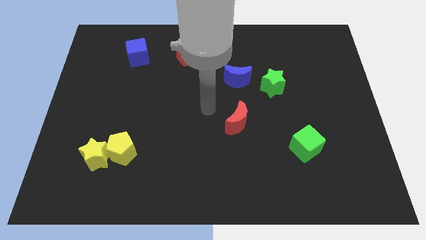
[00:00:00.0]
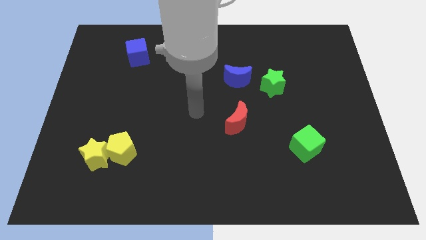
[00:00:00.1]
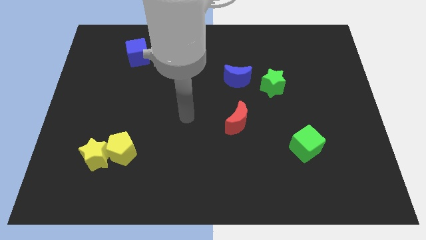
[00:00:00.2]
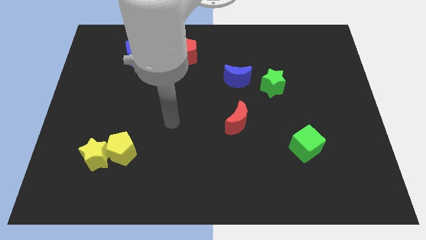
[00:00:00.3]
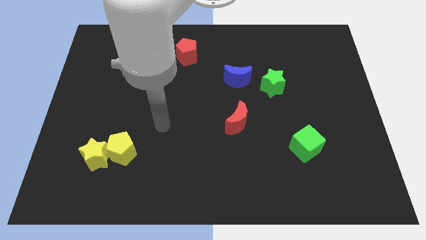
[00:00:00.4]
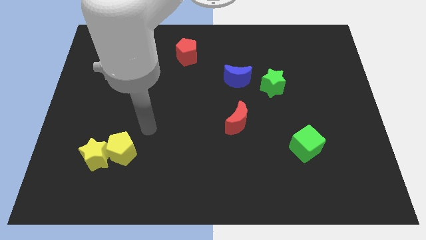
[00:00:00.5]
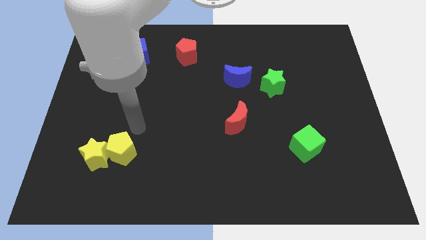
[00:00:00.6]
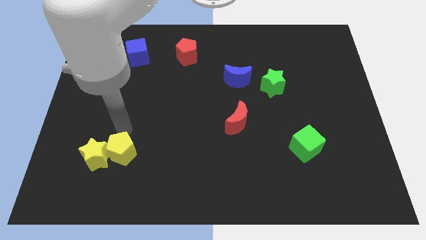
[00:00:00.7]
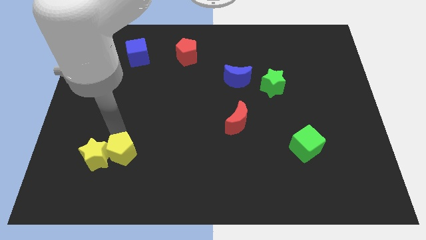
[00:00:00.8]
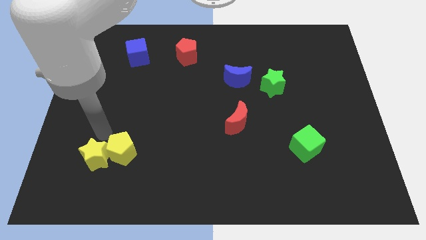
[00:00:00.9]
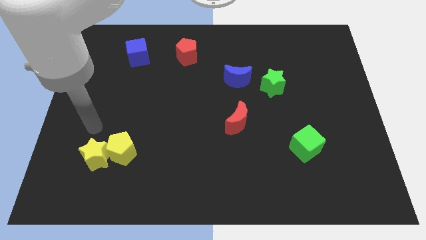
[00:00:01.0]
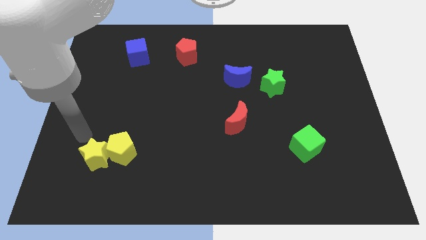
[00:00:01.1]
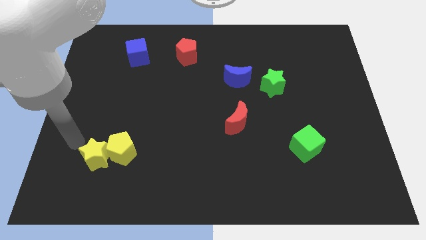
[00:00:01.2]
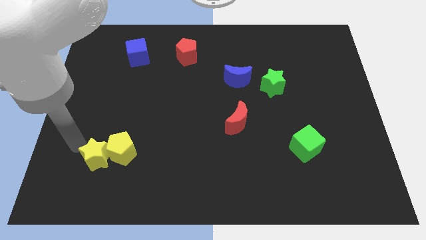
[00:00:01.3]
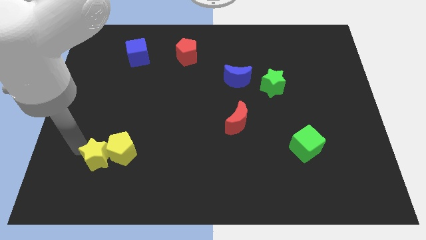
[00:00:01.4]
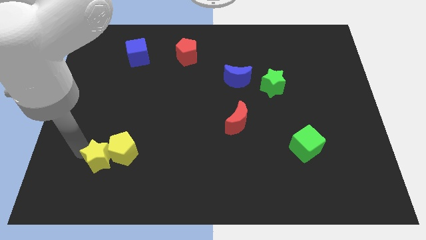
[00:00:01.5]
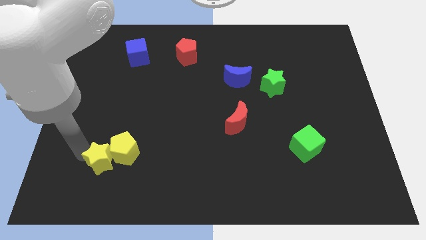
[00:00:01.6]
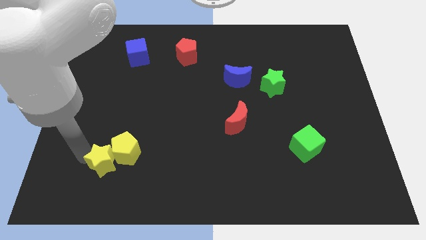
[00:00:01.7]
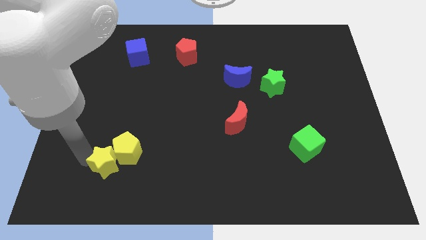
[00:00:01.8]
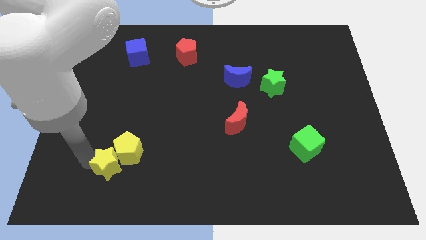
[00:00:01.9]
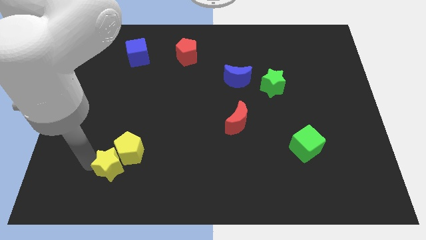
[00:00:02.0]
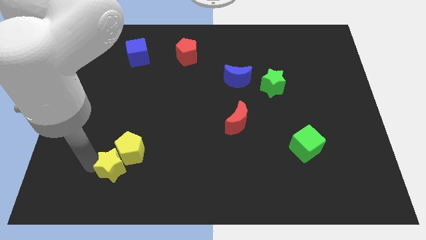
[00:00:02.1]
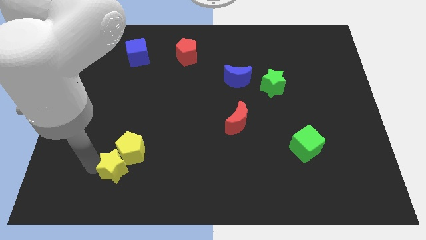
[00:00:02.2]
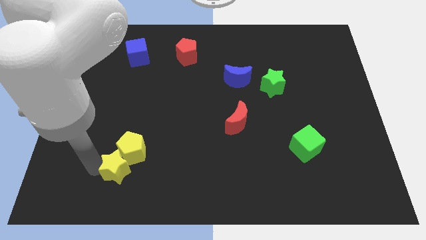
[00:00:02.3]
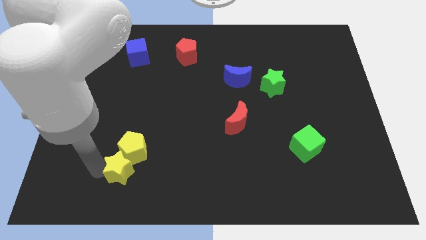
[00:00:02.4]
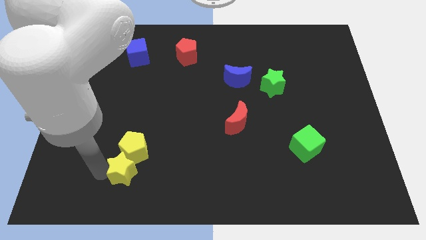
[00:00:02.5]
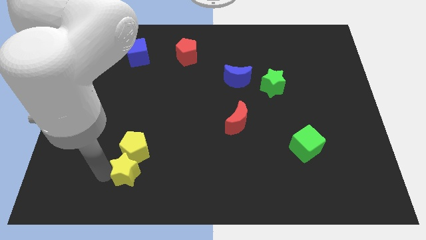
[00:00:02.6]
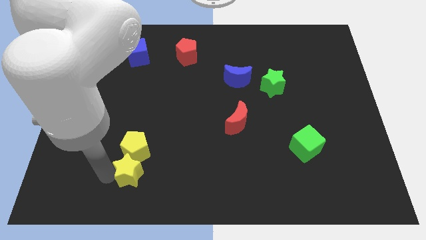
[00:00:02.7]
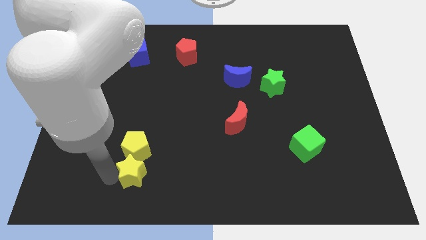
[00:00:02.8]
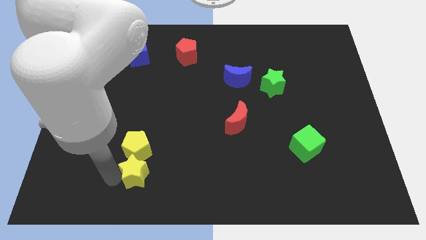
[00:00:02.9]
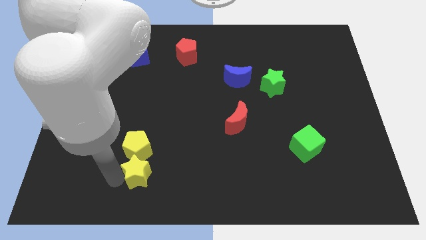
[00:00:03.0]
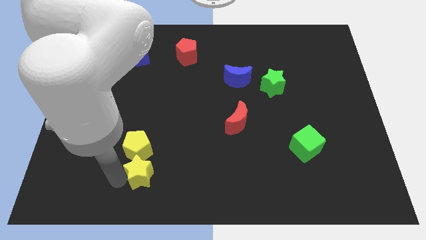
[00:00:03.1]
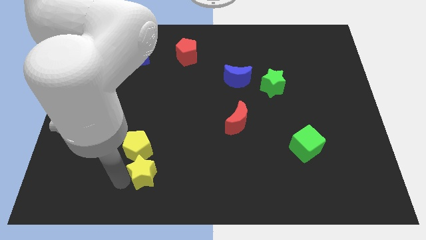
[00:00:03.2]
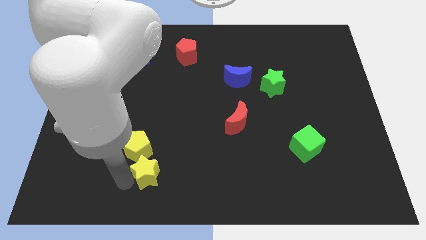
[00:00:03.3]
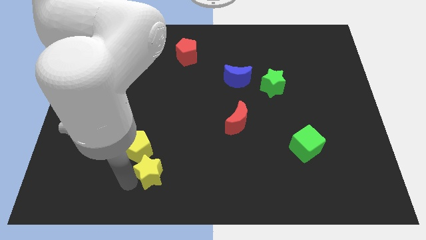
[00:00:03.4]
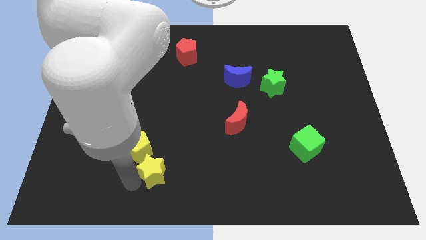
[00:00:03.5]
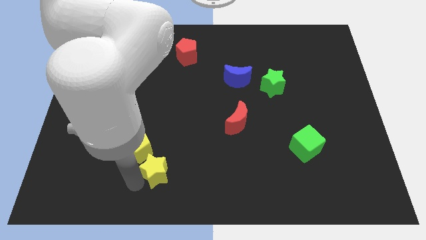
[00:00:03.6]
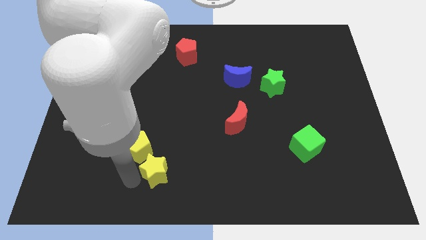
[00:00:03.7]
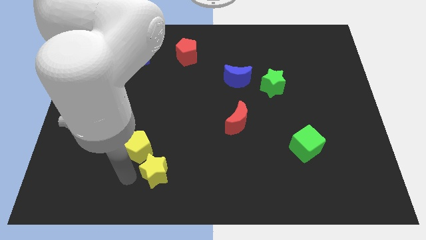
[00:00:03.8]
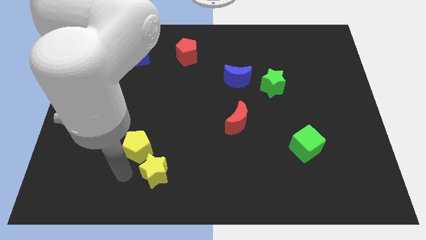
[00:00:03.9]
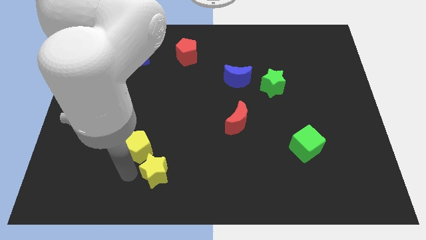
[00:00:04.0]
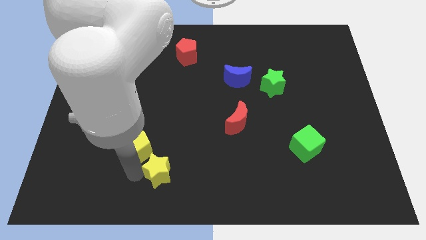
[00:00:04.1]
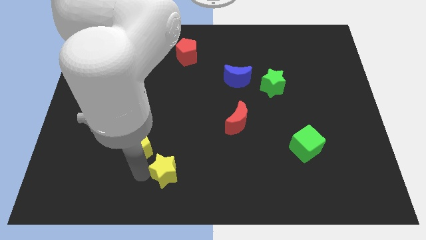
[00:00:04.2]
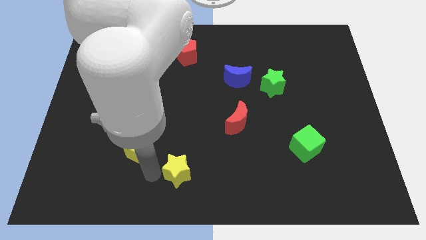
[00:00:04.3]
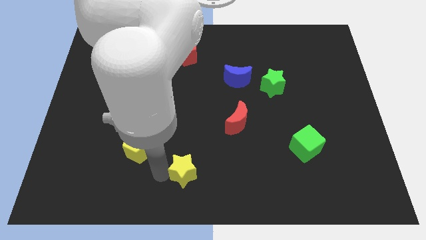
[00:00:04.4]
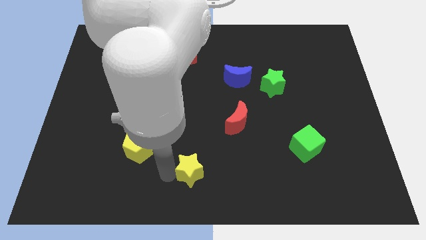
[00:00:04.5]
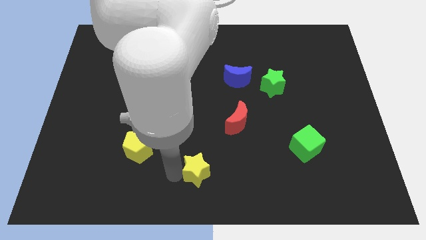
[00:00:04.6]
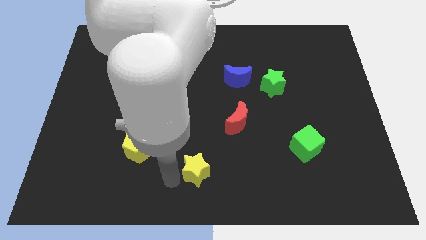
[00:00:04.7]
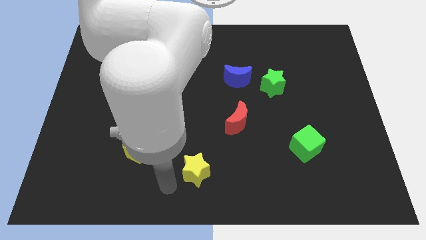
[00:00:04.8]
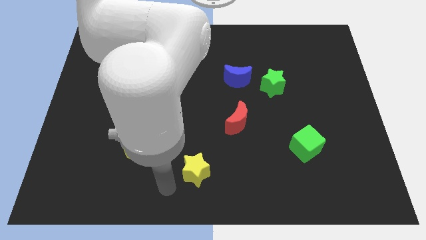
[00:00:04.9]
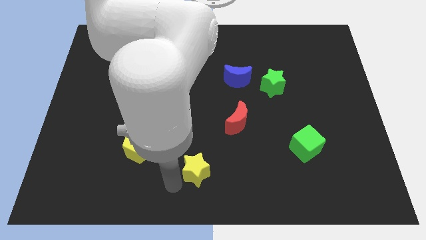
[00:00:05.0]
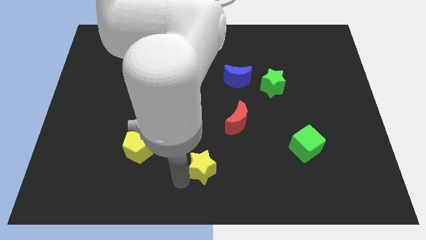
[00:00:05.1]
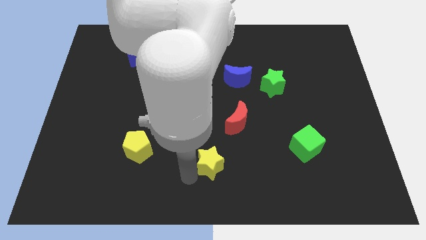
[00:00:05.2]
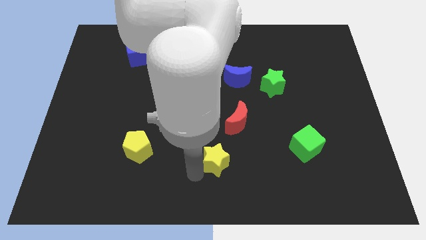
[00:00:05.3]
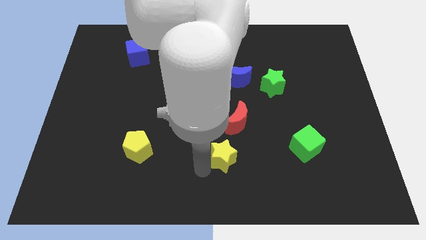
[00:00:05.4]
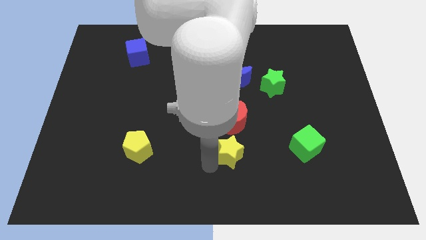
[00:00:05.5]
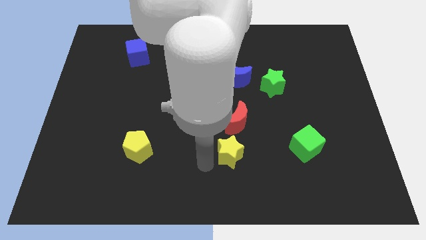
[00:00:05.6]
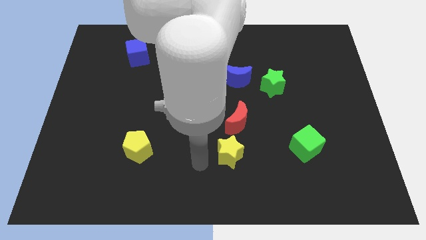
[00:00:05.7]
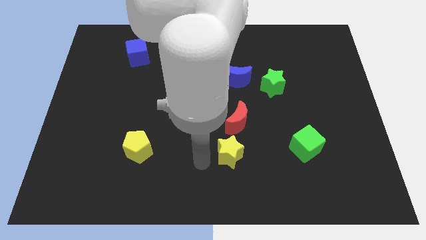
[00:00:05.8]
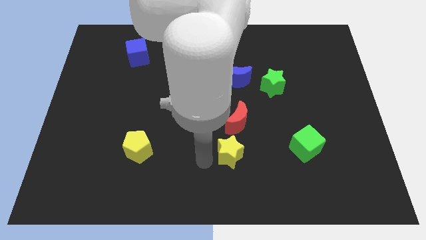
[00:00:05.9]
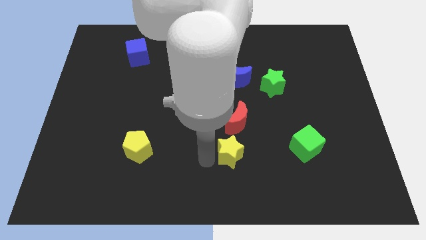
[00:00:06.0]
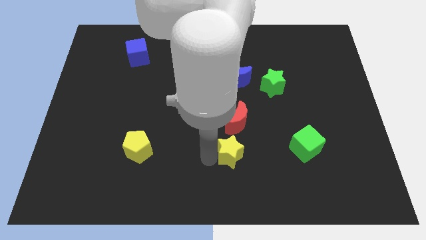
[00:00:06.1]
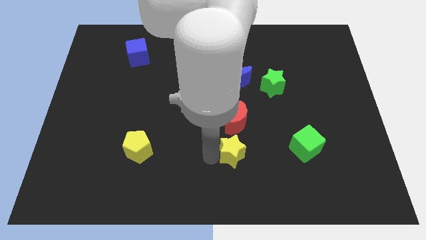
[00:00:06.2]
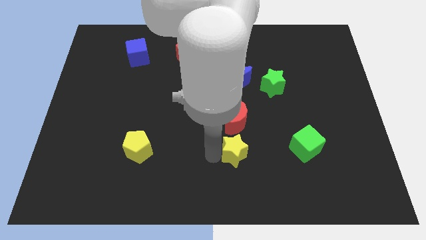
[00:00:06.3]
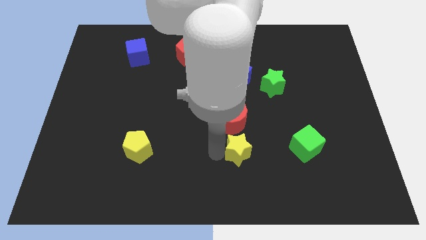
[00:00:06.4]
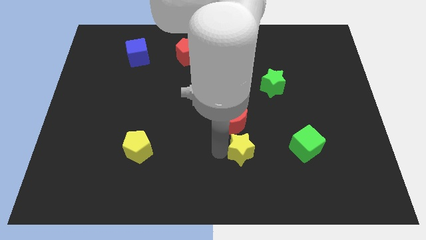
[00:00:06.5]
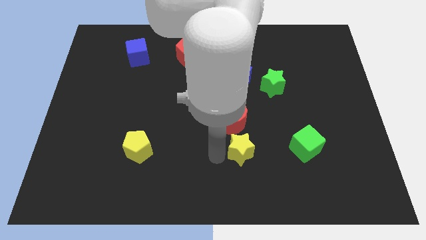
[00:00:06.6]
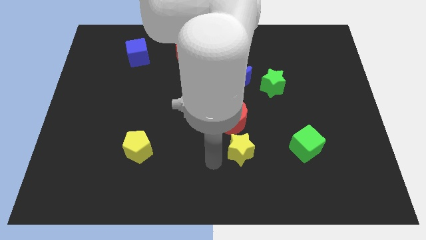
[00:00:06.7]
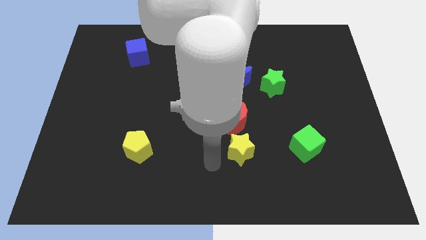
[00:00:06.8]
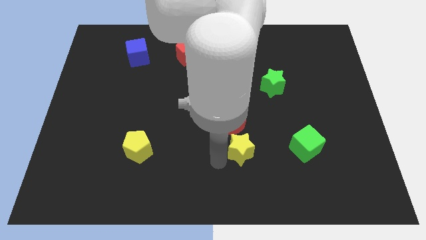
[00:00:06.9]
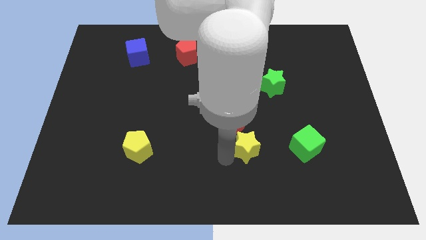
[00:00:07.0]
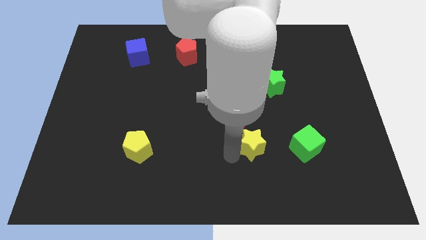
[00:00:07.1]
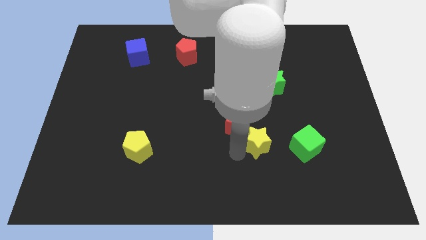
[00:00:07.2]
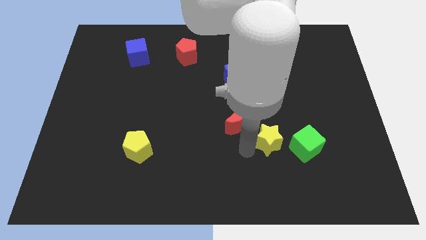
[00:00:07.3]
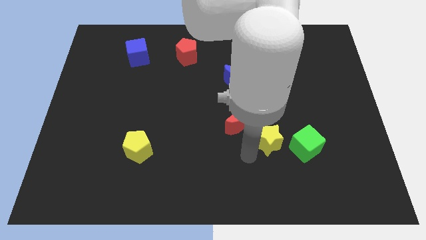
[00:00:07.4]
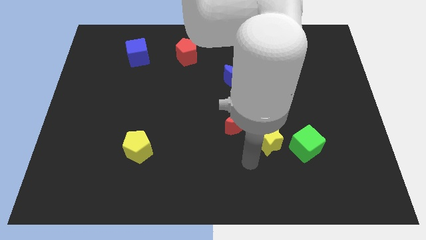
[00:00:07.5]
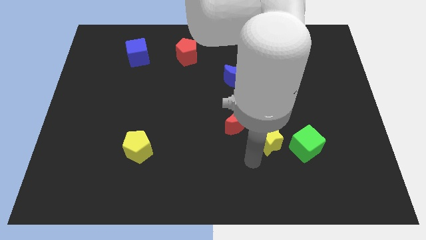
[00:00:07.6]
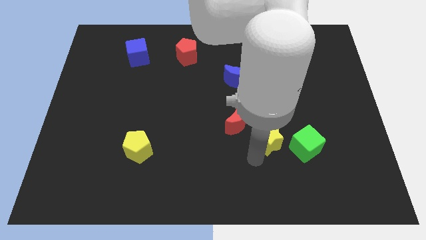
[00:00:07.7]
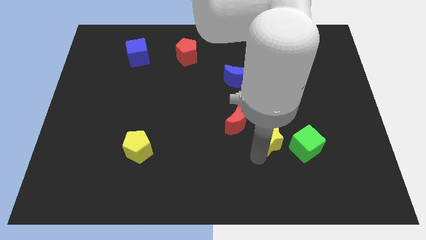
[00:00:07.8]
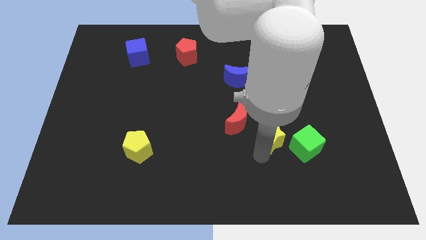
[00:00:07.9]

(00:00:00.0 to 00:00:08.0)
slide the yellow star to the right side of the red moon
